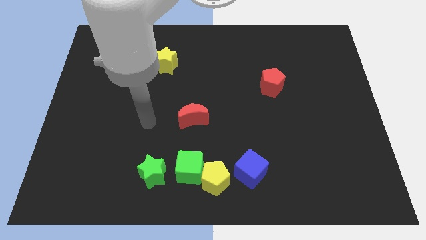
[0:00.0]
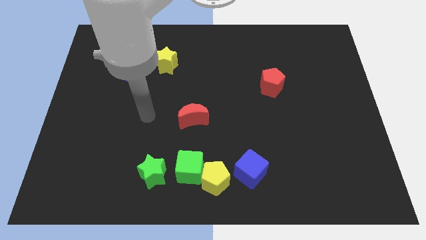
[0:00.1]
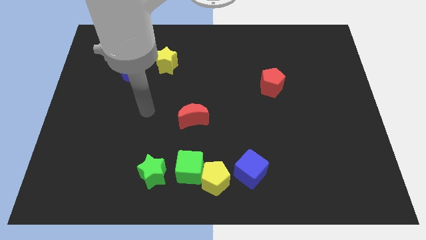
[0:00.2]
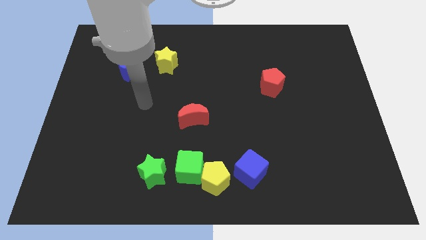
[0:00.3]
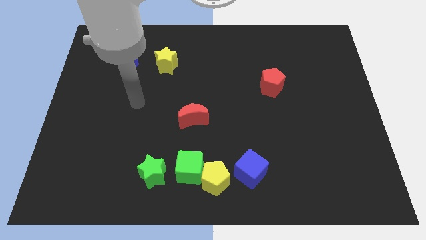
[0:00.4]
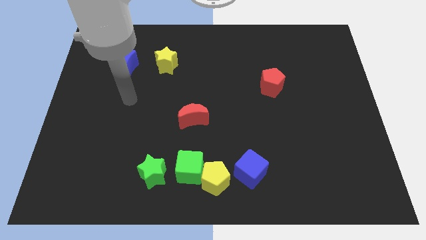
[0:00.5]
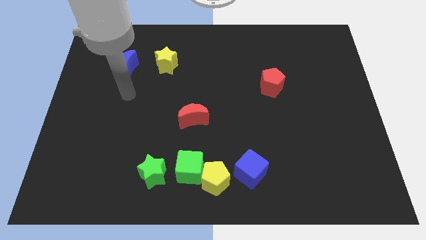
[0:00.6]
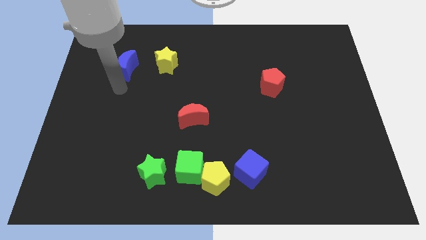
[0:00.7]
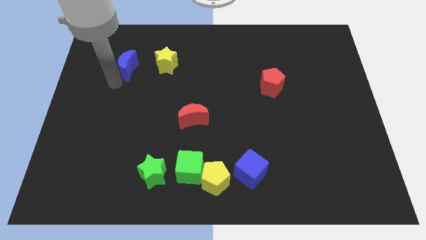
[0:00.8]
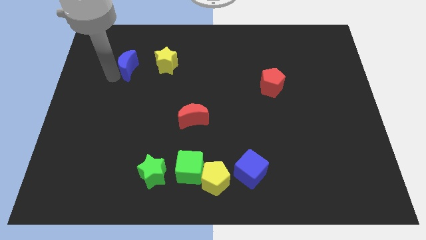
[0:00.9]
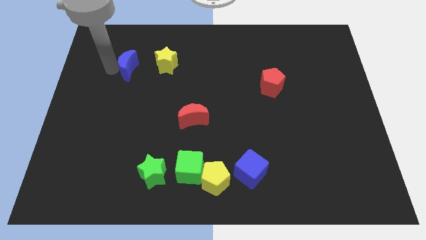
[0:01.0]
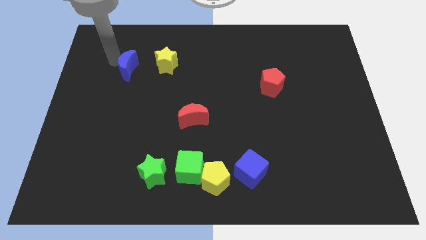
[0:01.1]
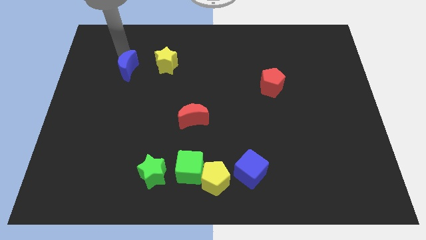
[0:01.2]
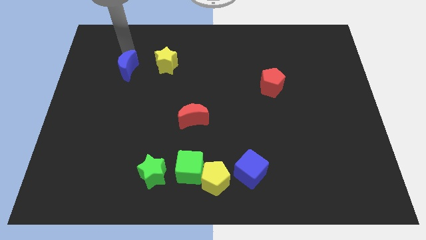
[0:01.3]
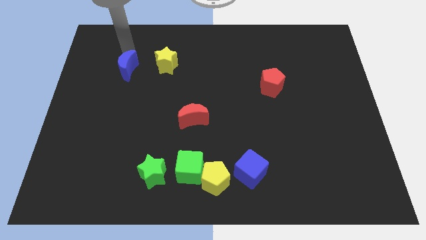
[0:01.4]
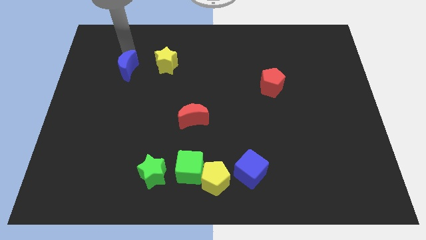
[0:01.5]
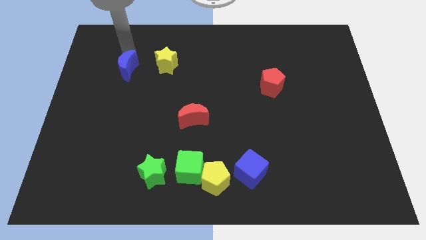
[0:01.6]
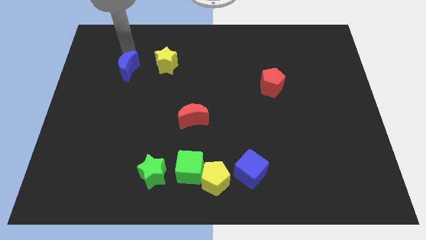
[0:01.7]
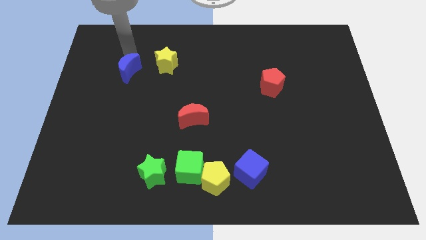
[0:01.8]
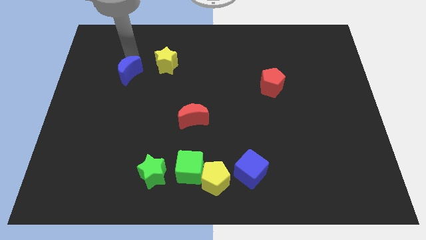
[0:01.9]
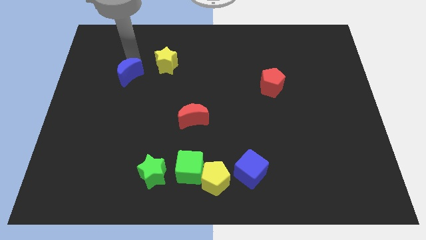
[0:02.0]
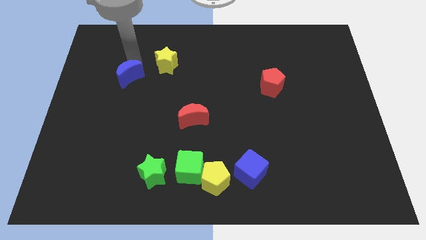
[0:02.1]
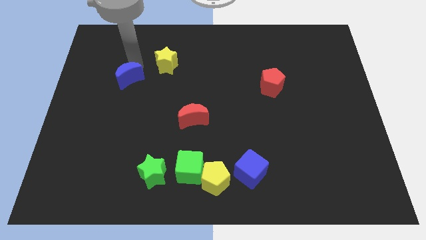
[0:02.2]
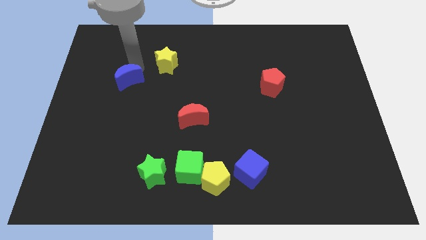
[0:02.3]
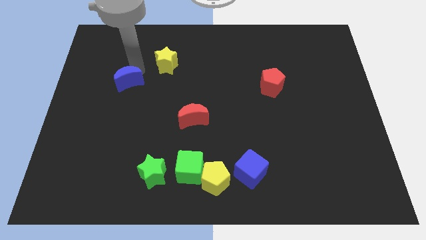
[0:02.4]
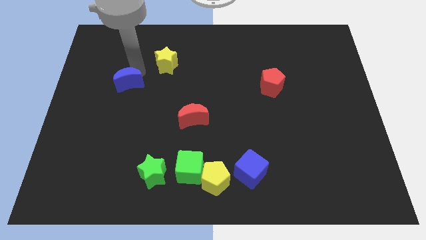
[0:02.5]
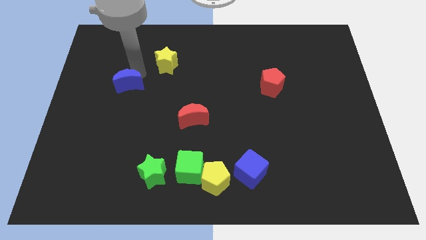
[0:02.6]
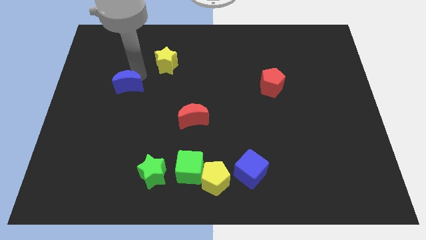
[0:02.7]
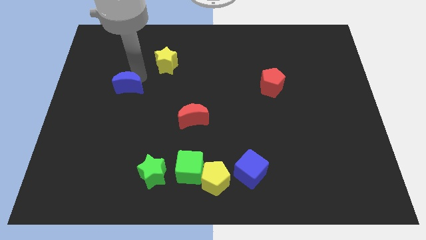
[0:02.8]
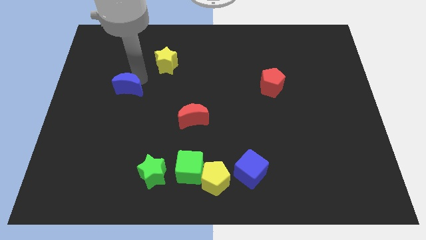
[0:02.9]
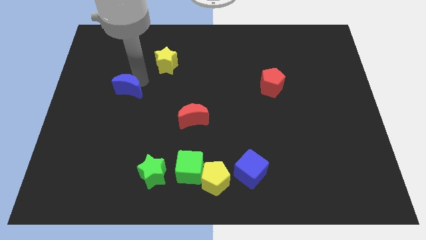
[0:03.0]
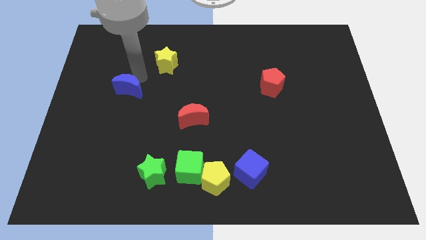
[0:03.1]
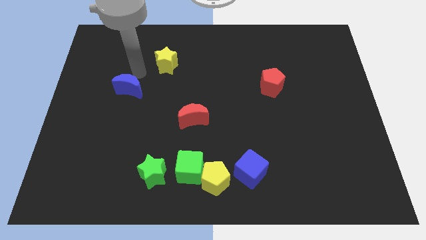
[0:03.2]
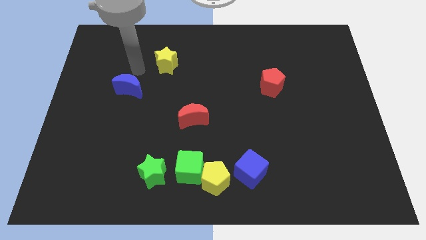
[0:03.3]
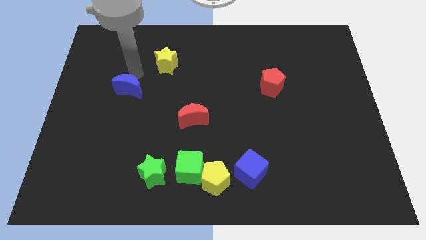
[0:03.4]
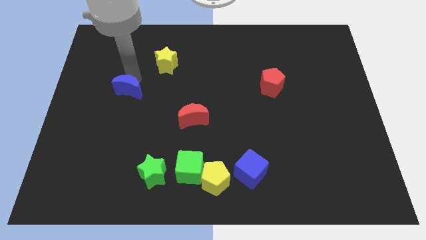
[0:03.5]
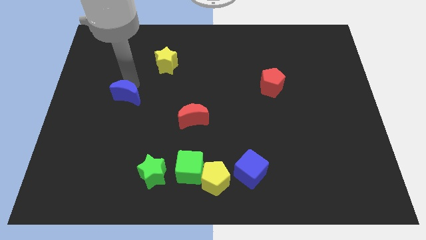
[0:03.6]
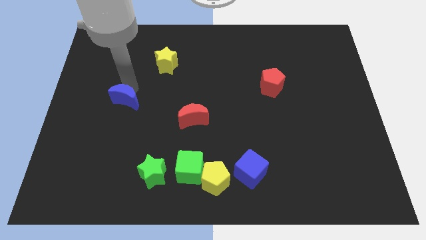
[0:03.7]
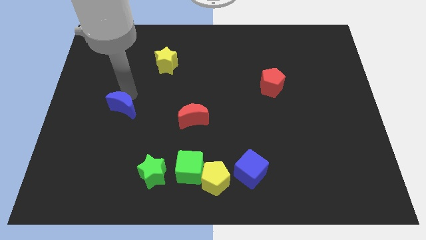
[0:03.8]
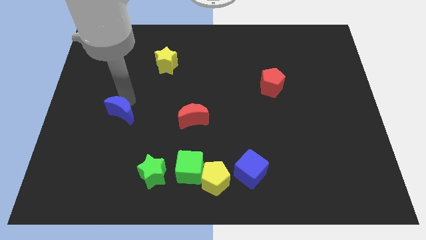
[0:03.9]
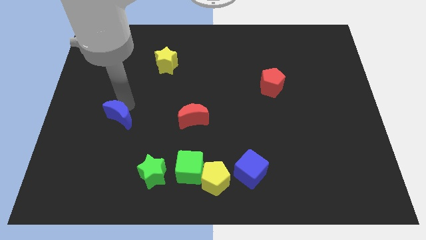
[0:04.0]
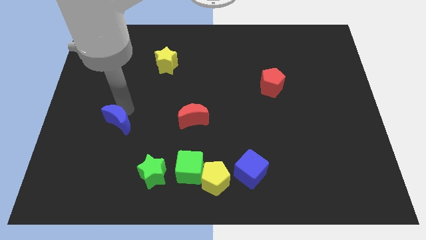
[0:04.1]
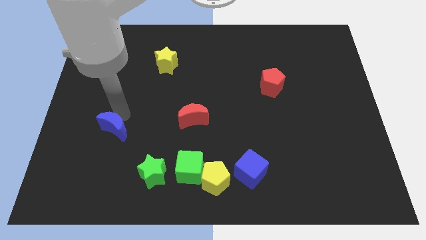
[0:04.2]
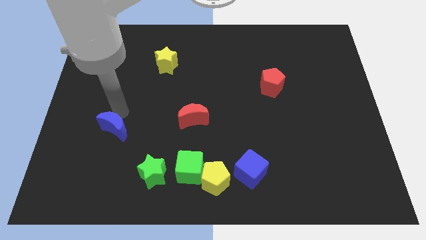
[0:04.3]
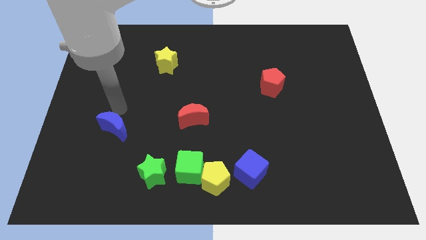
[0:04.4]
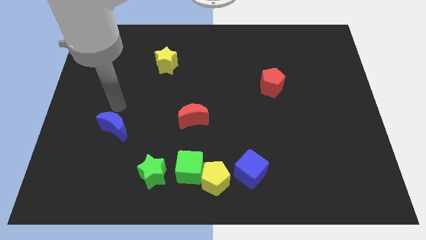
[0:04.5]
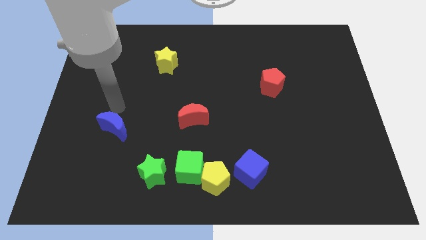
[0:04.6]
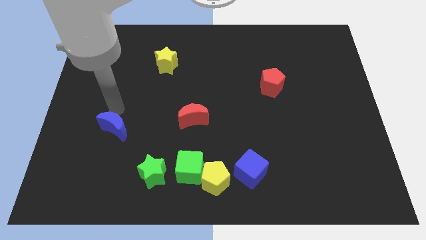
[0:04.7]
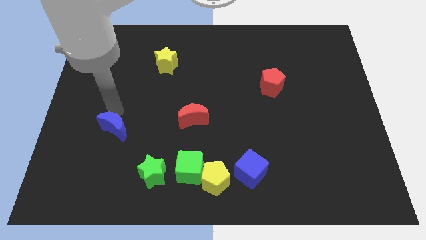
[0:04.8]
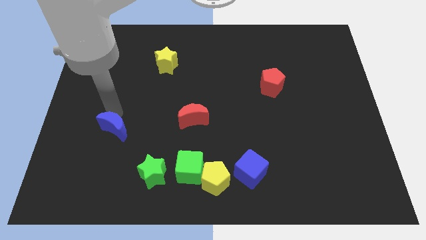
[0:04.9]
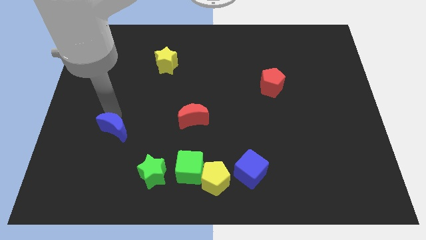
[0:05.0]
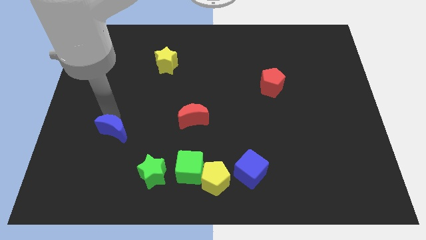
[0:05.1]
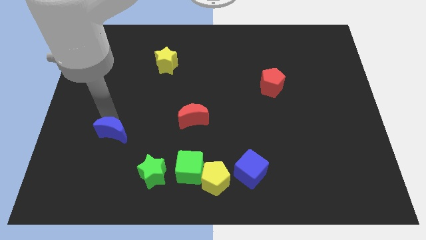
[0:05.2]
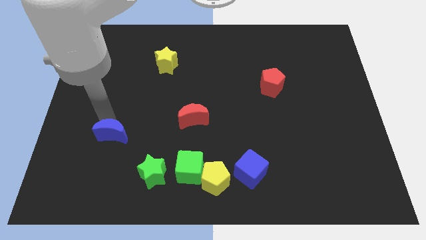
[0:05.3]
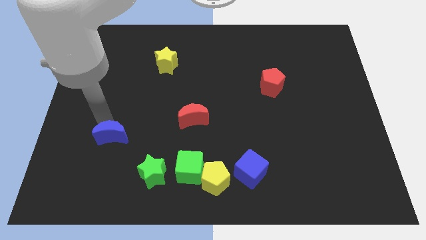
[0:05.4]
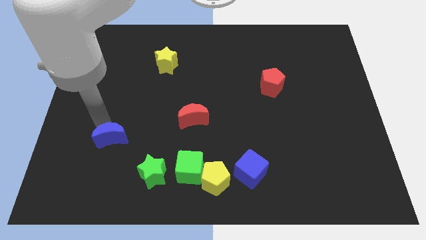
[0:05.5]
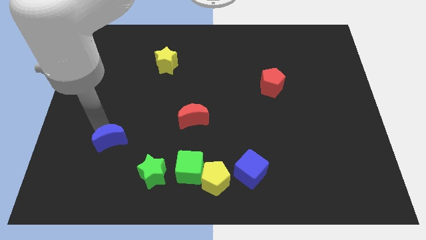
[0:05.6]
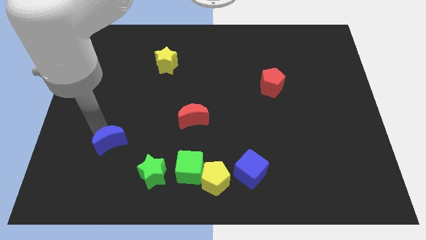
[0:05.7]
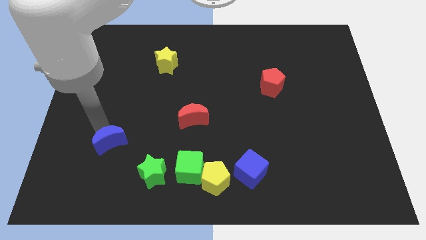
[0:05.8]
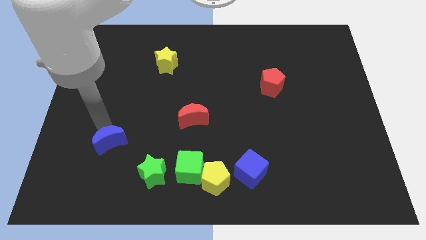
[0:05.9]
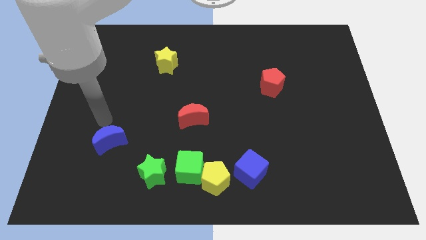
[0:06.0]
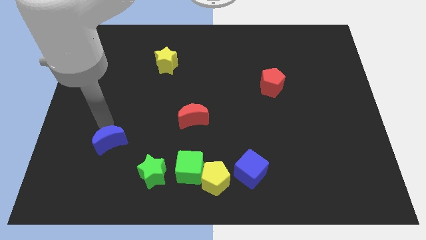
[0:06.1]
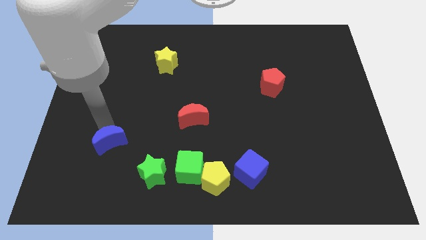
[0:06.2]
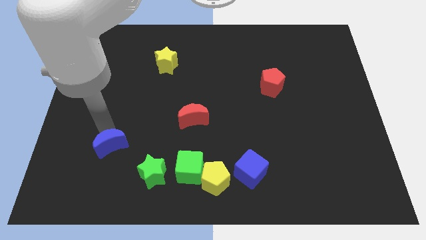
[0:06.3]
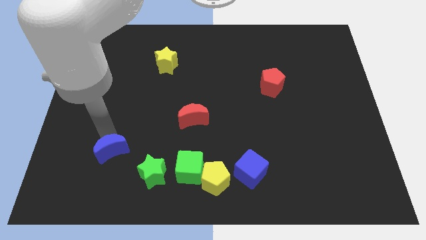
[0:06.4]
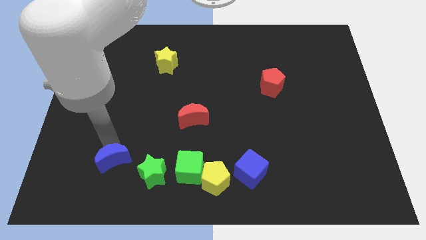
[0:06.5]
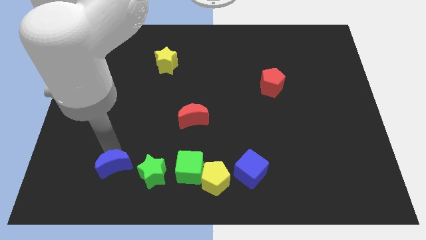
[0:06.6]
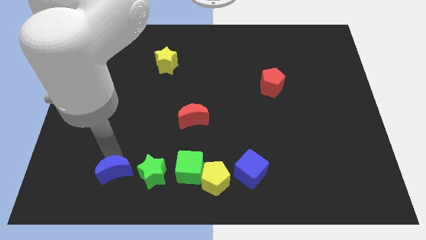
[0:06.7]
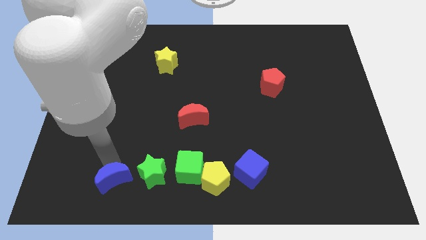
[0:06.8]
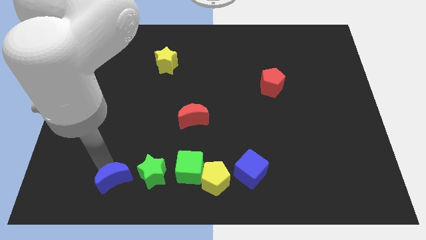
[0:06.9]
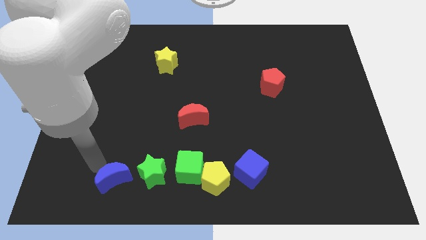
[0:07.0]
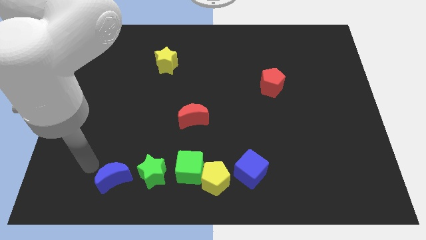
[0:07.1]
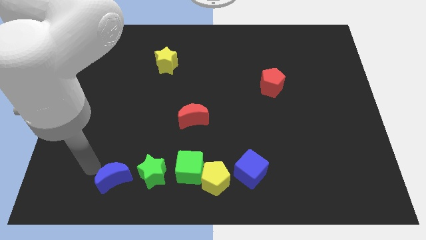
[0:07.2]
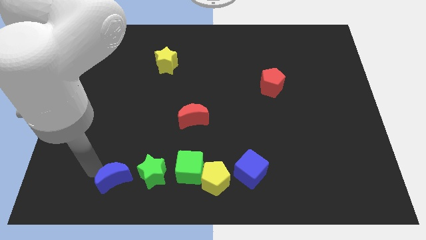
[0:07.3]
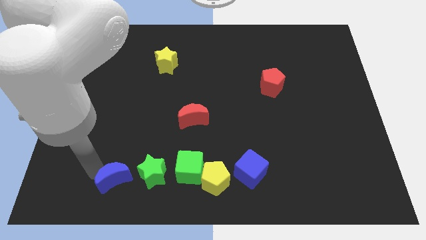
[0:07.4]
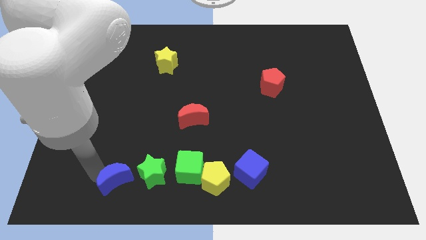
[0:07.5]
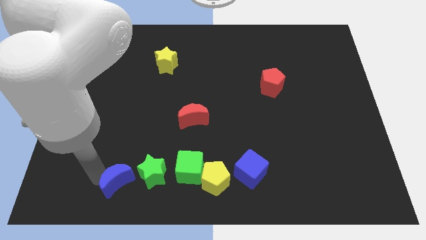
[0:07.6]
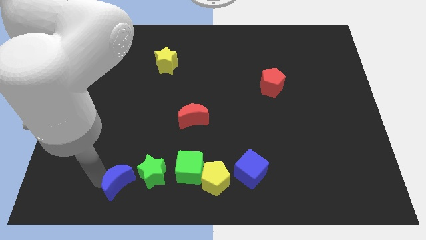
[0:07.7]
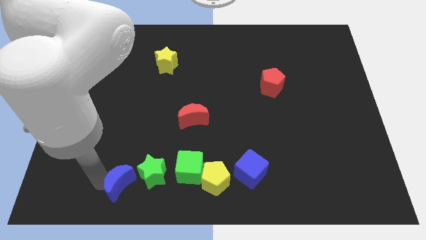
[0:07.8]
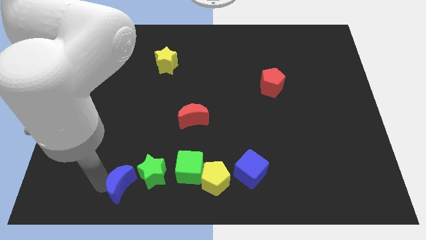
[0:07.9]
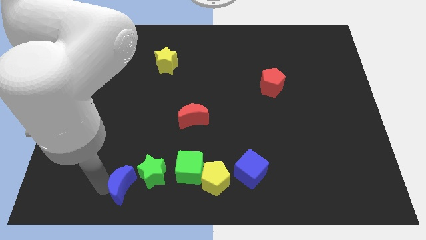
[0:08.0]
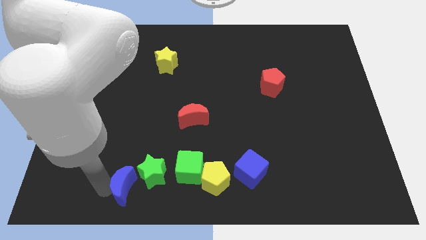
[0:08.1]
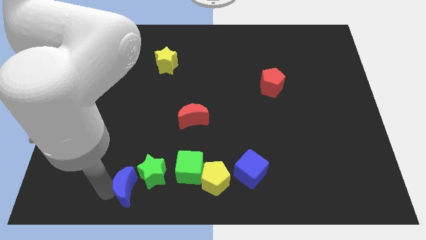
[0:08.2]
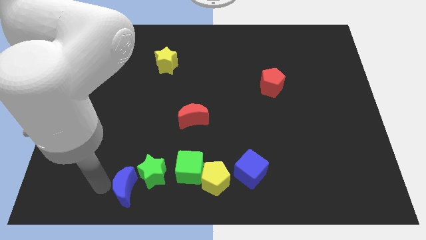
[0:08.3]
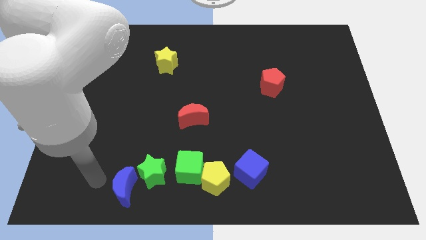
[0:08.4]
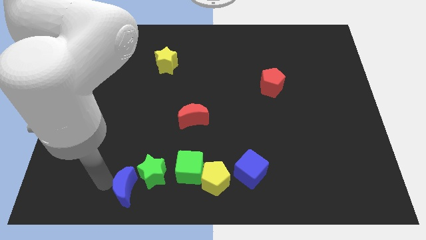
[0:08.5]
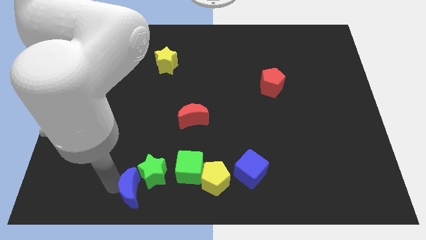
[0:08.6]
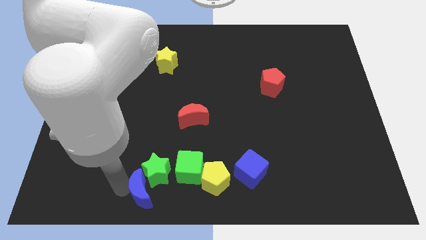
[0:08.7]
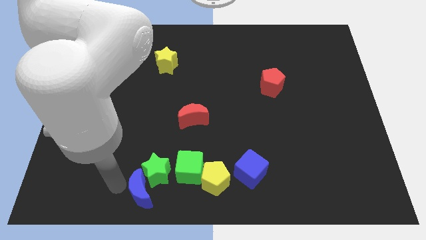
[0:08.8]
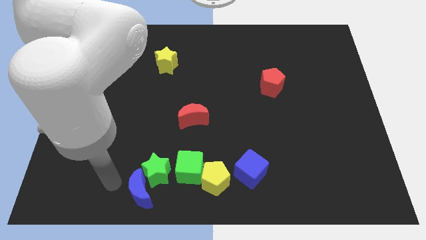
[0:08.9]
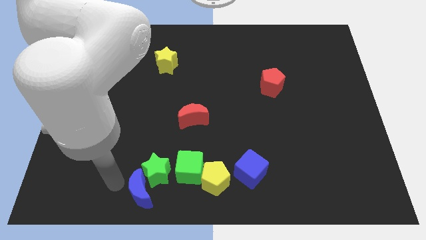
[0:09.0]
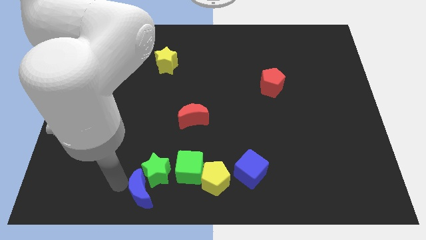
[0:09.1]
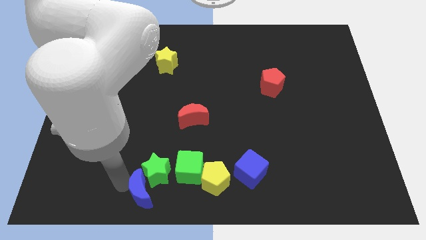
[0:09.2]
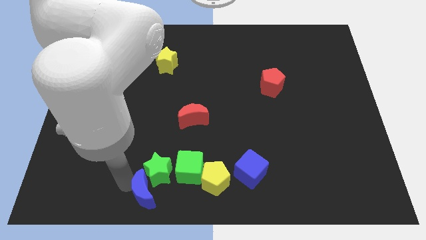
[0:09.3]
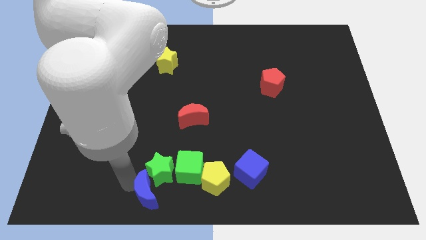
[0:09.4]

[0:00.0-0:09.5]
move the blue moon to the bottom side
